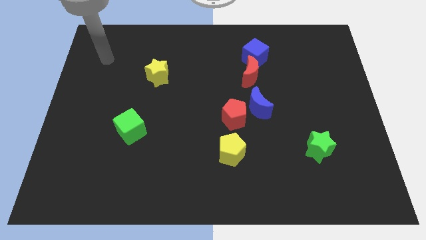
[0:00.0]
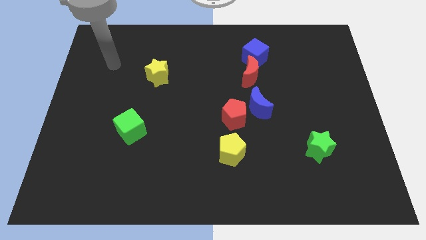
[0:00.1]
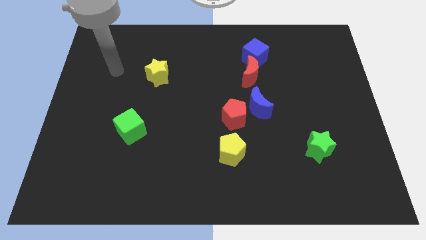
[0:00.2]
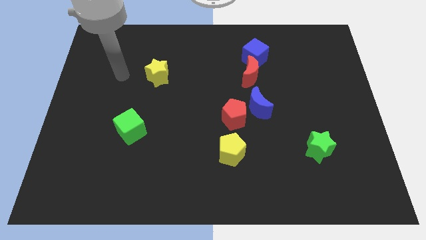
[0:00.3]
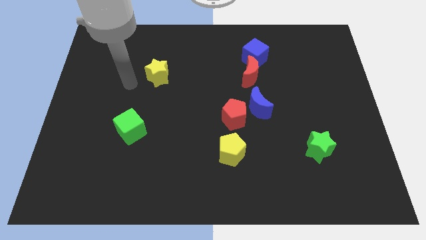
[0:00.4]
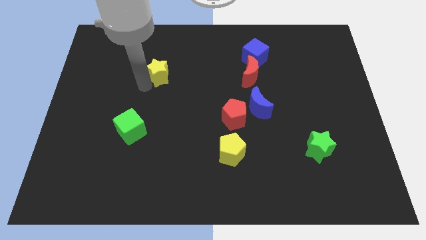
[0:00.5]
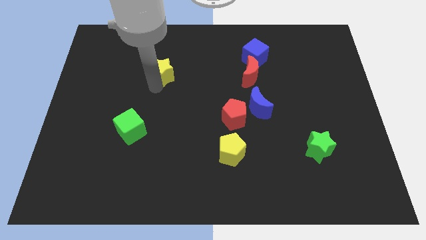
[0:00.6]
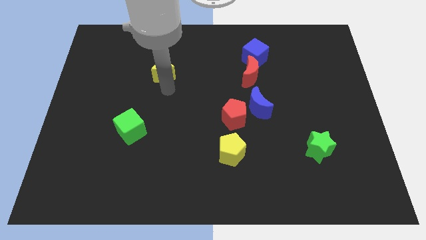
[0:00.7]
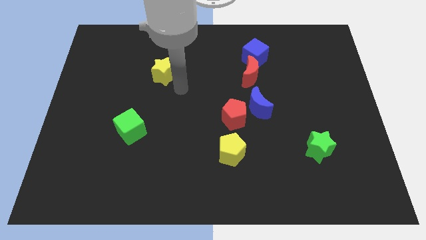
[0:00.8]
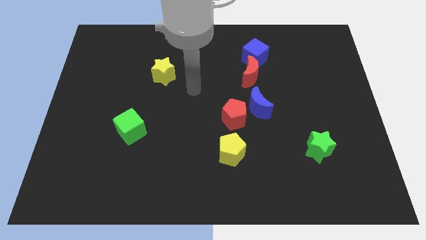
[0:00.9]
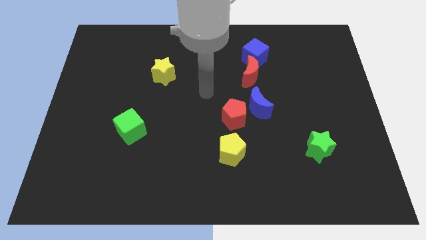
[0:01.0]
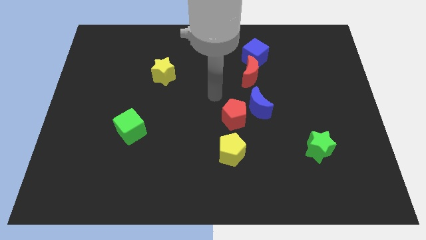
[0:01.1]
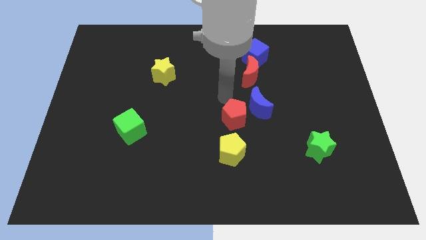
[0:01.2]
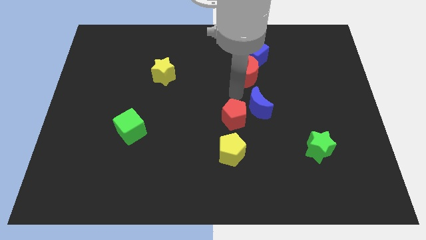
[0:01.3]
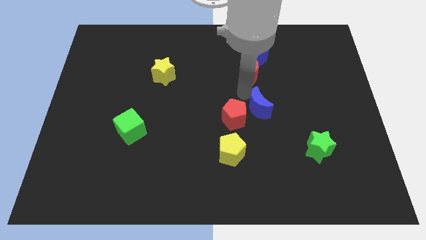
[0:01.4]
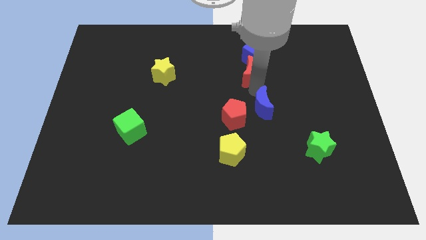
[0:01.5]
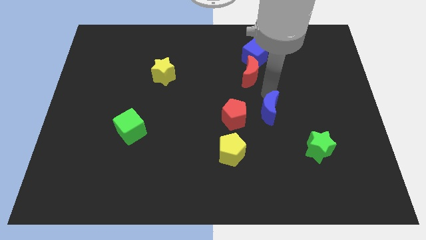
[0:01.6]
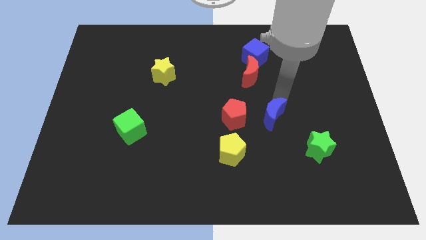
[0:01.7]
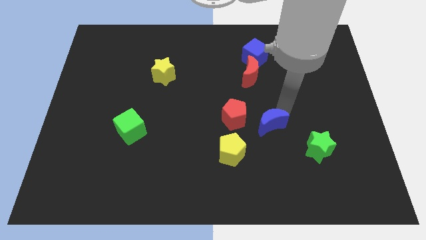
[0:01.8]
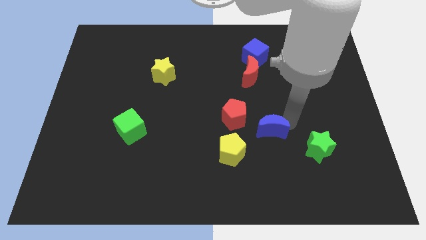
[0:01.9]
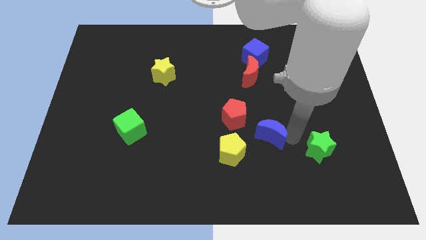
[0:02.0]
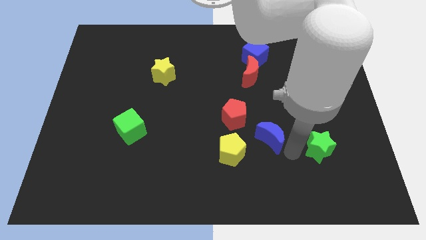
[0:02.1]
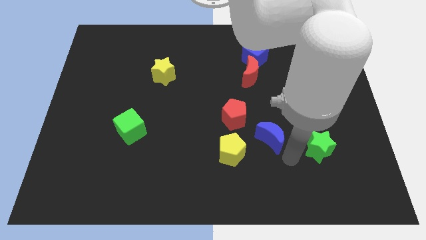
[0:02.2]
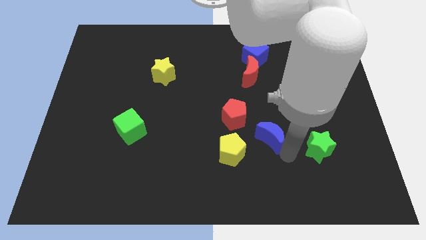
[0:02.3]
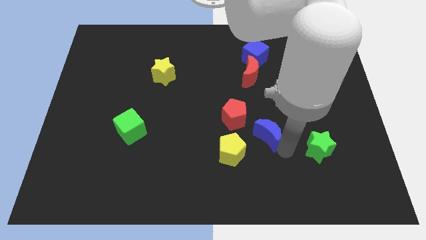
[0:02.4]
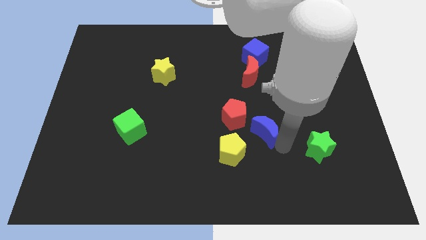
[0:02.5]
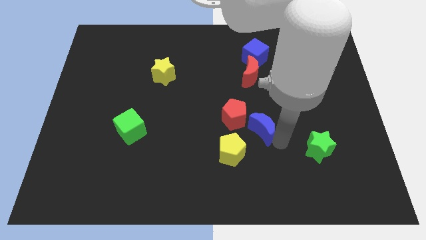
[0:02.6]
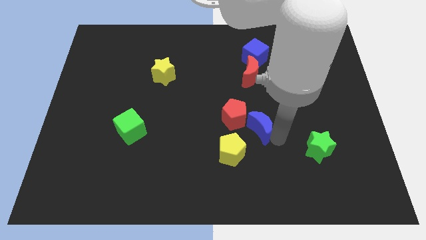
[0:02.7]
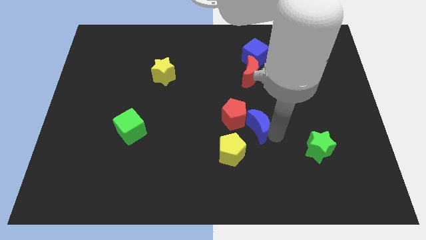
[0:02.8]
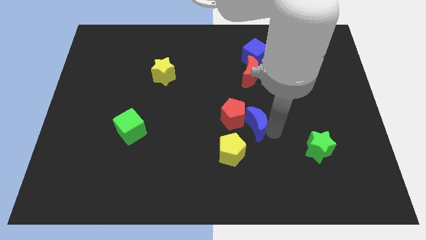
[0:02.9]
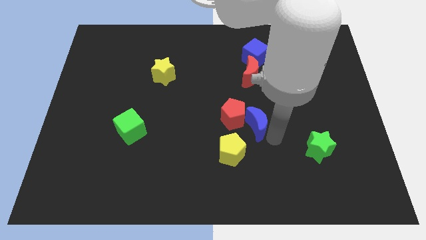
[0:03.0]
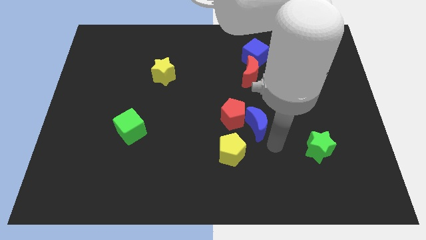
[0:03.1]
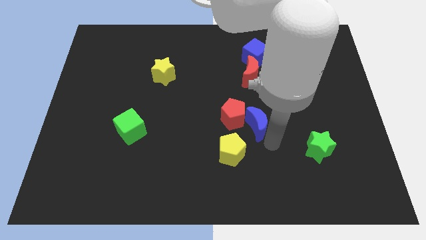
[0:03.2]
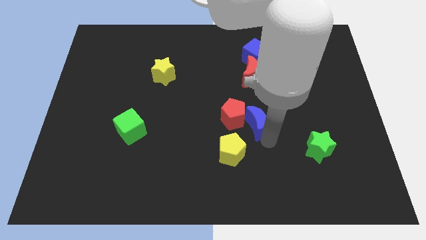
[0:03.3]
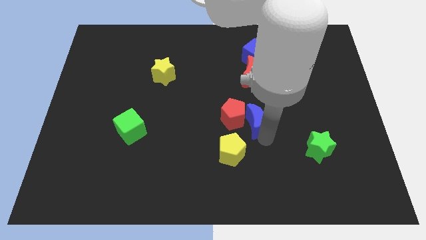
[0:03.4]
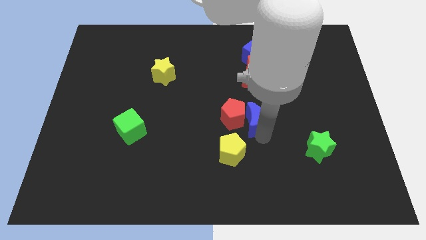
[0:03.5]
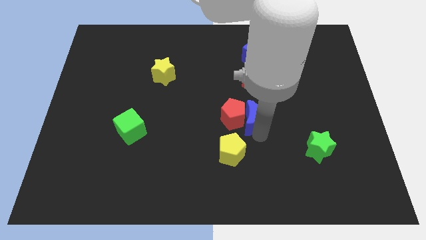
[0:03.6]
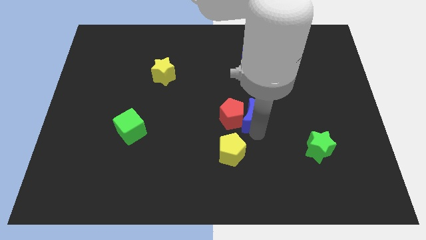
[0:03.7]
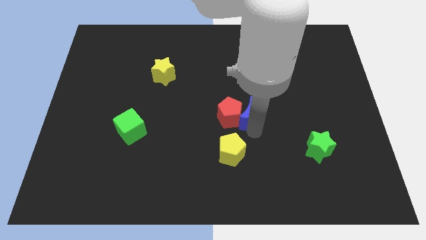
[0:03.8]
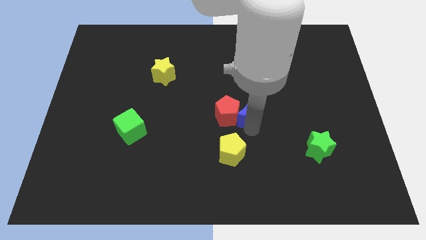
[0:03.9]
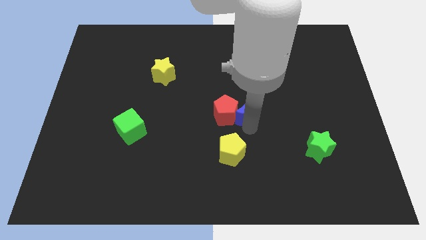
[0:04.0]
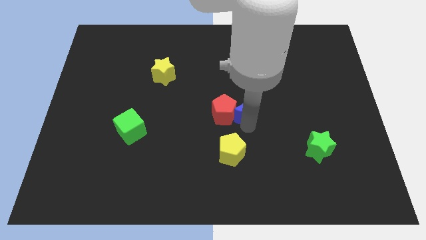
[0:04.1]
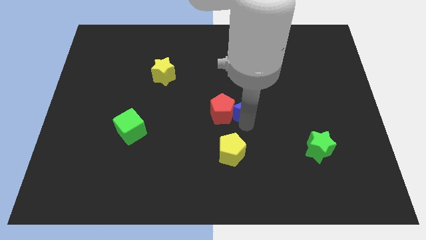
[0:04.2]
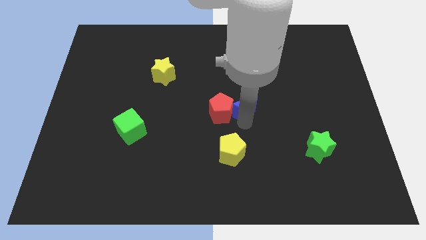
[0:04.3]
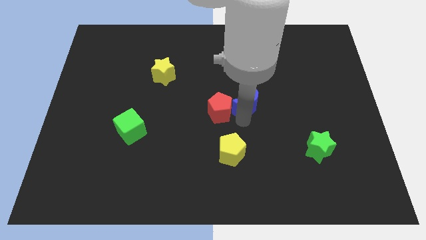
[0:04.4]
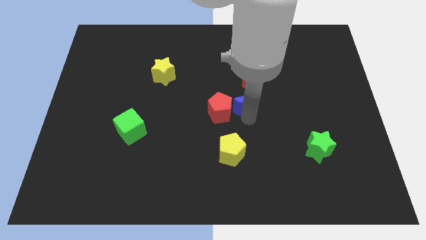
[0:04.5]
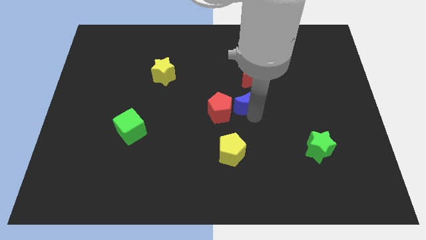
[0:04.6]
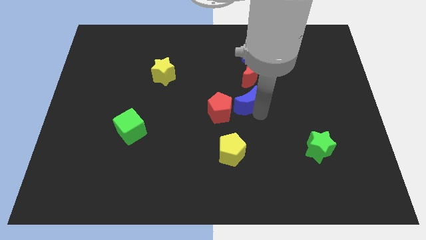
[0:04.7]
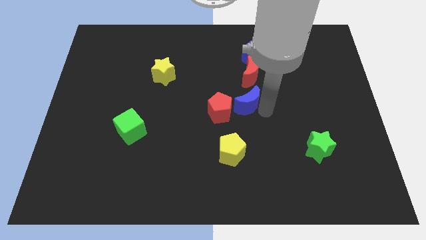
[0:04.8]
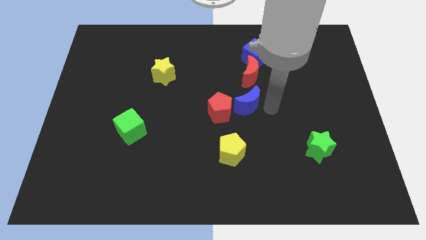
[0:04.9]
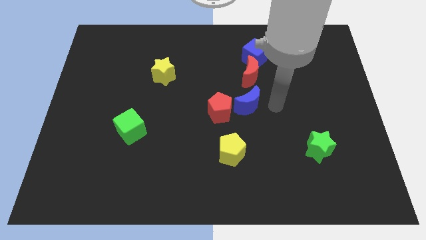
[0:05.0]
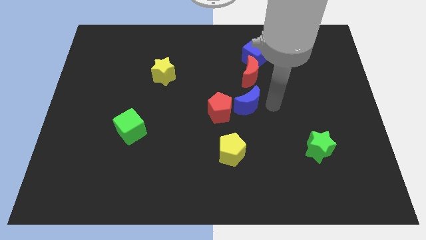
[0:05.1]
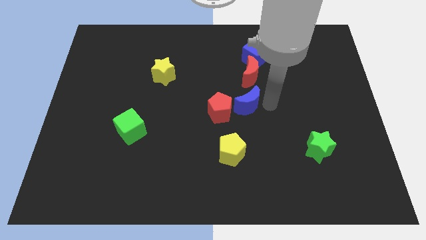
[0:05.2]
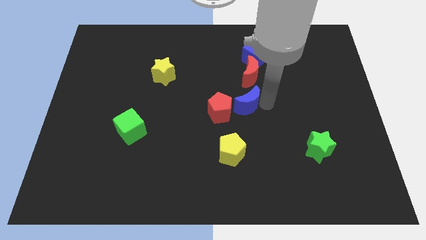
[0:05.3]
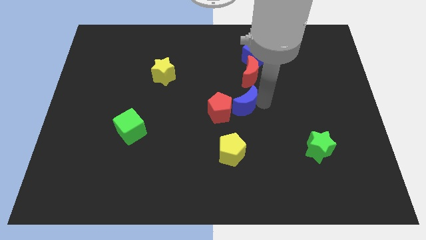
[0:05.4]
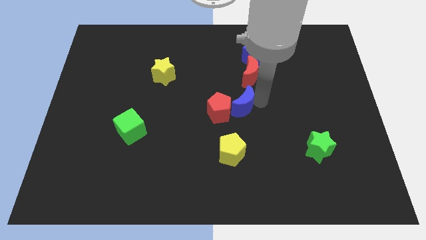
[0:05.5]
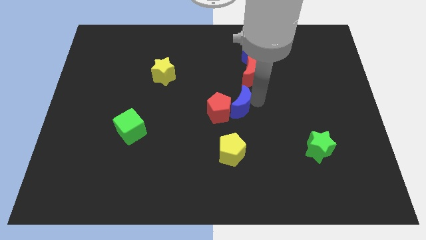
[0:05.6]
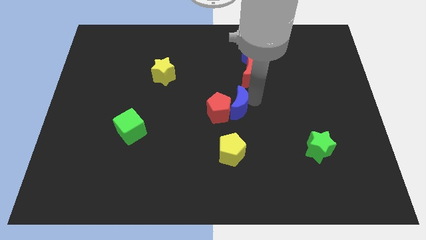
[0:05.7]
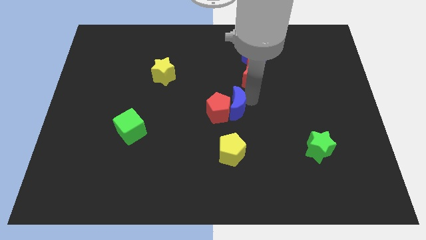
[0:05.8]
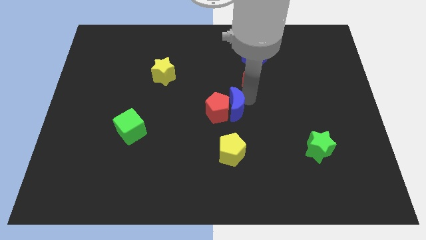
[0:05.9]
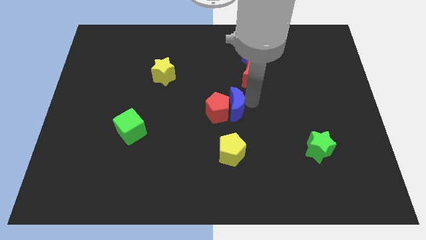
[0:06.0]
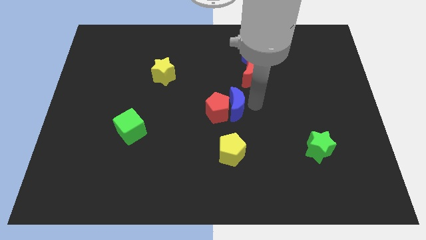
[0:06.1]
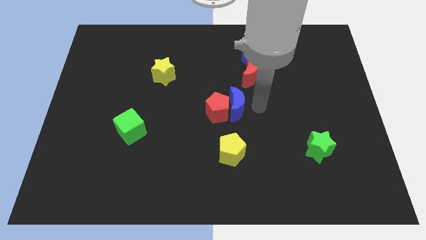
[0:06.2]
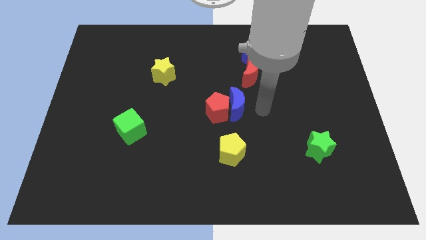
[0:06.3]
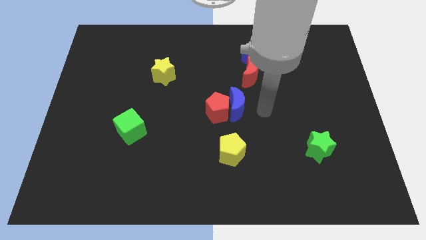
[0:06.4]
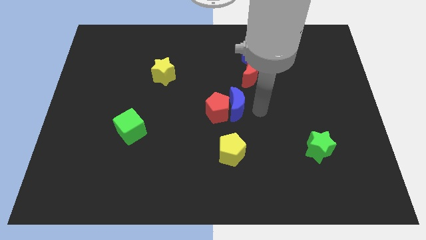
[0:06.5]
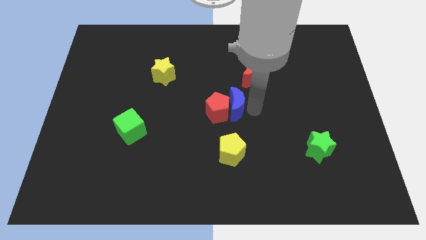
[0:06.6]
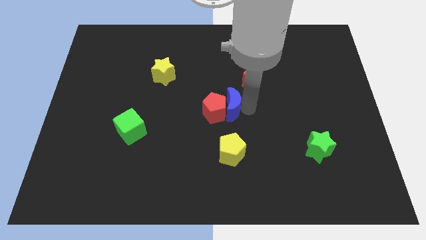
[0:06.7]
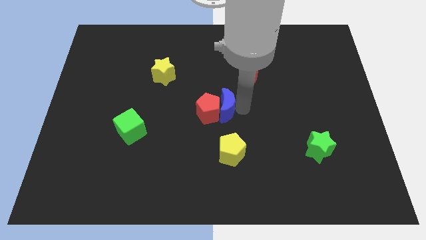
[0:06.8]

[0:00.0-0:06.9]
move the blue moon to the left a bit

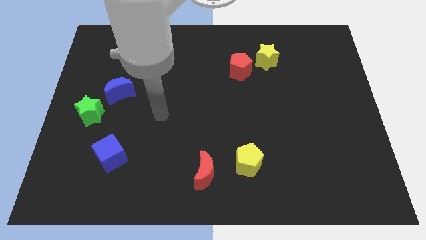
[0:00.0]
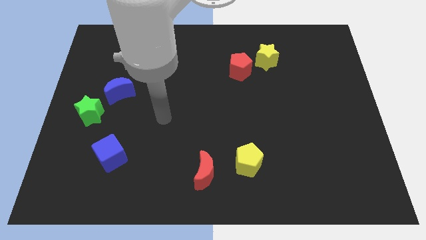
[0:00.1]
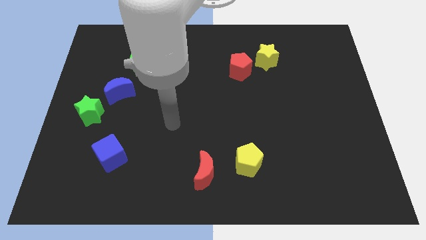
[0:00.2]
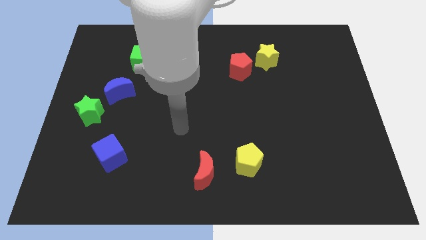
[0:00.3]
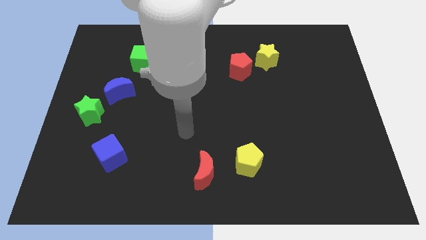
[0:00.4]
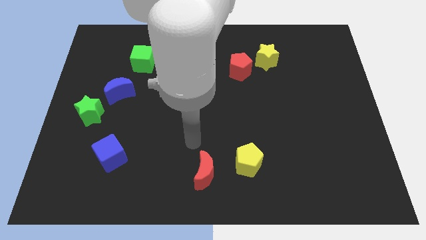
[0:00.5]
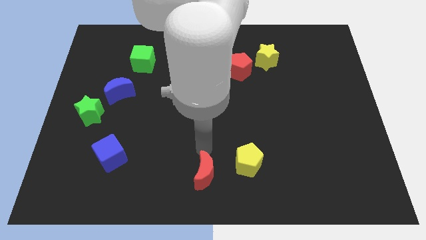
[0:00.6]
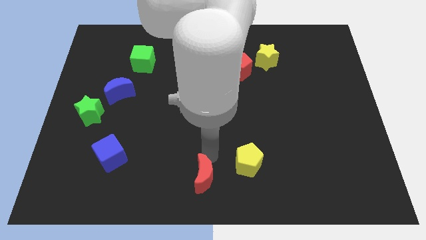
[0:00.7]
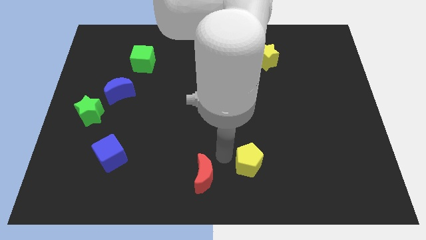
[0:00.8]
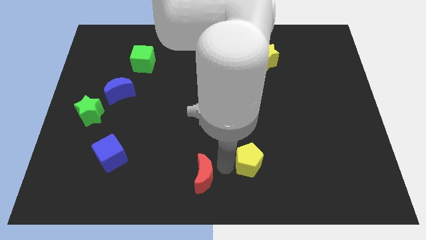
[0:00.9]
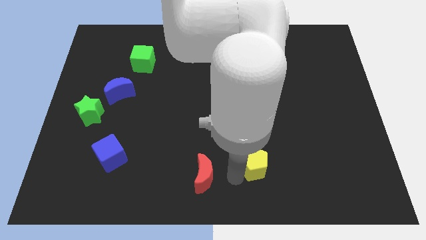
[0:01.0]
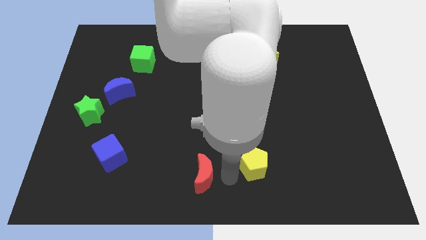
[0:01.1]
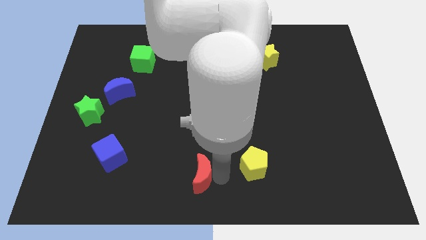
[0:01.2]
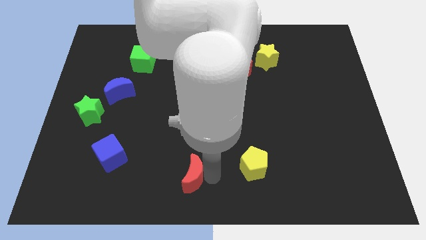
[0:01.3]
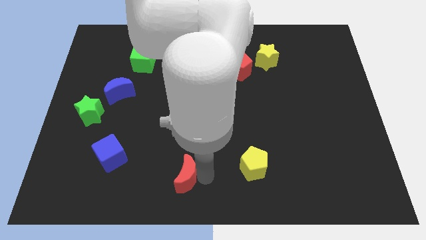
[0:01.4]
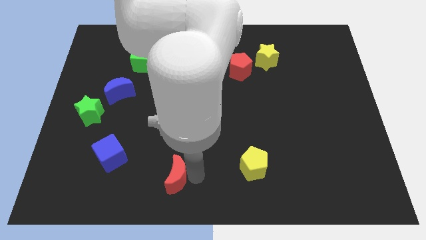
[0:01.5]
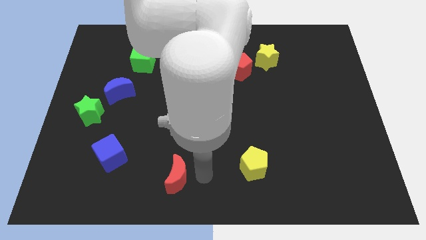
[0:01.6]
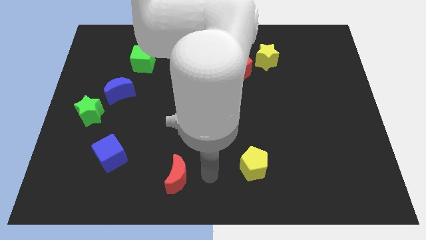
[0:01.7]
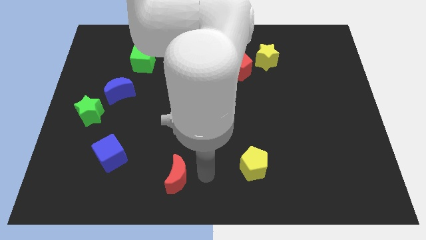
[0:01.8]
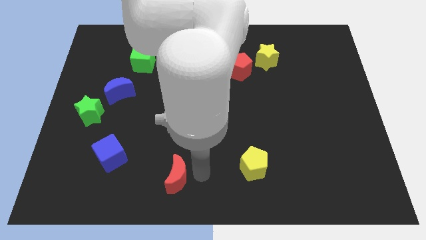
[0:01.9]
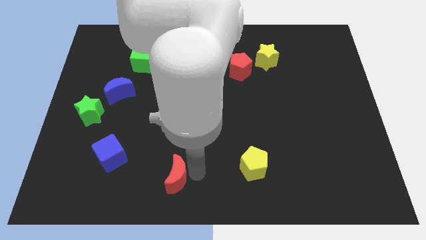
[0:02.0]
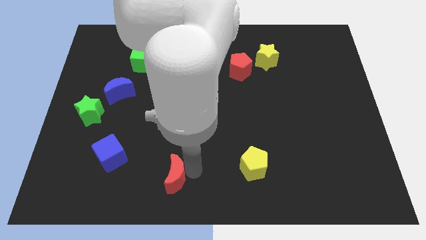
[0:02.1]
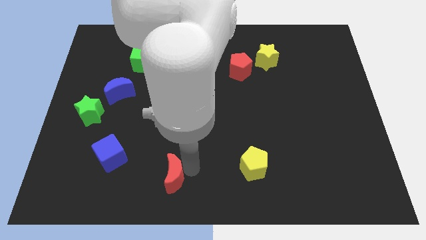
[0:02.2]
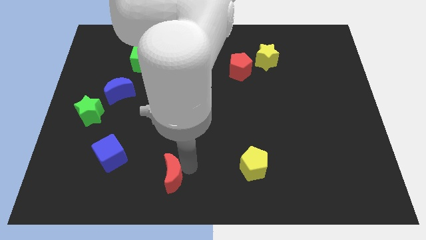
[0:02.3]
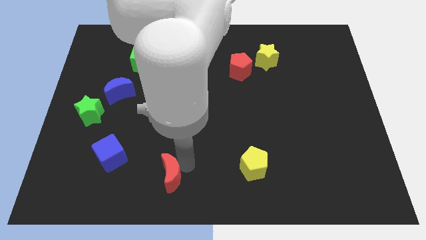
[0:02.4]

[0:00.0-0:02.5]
slide the red moon to the left a little bit
